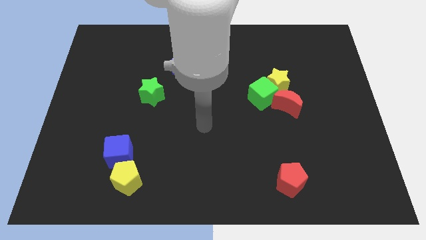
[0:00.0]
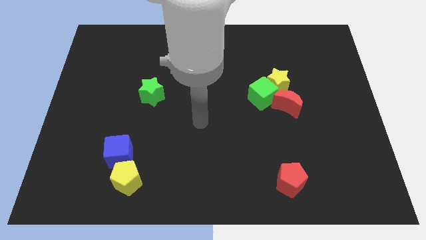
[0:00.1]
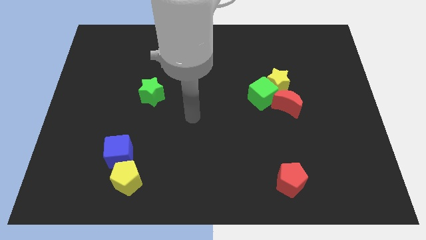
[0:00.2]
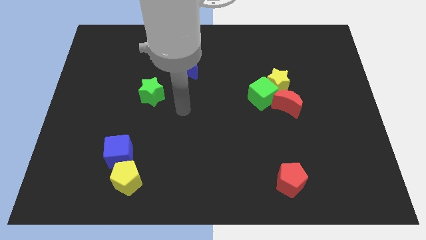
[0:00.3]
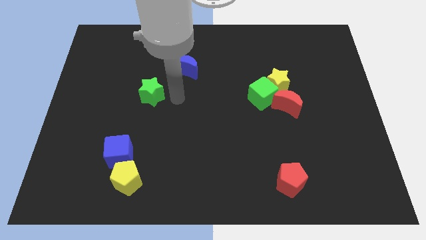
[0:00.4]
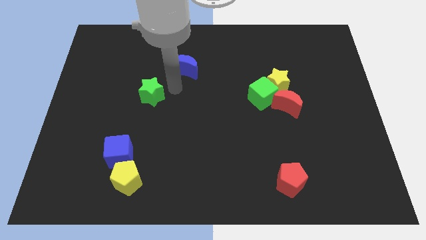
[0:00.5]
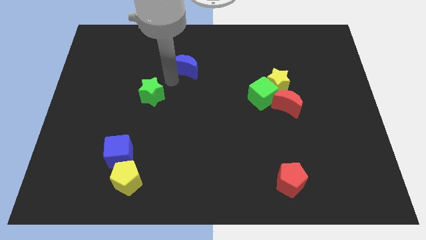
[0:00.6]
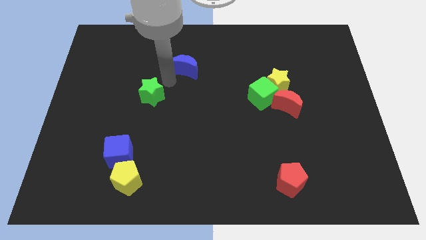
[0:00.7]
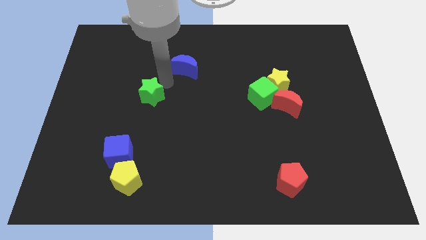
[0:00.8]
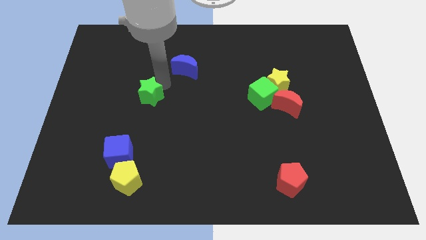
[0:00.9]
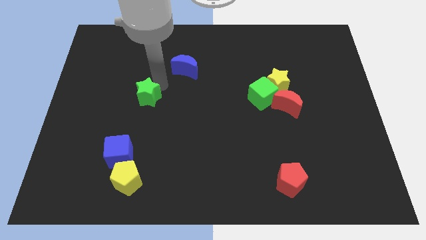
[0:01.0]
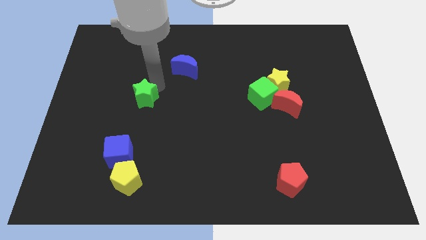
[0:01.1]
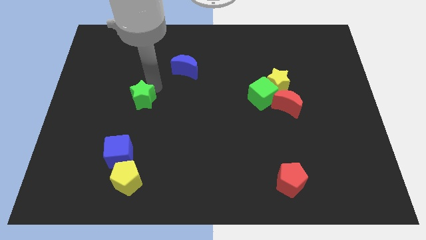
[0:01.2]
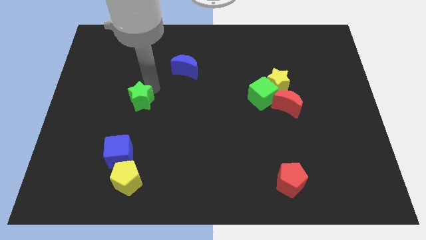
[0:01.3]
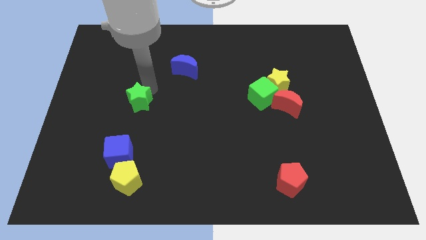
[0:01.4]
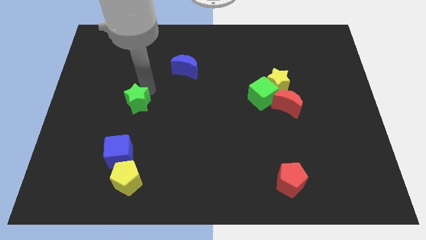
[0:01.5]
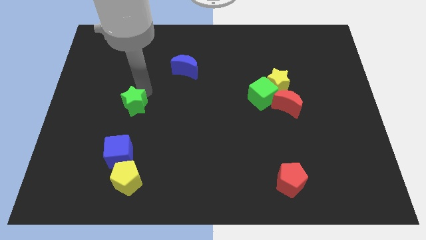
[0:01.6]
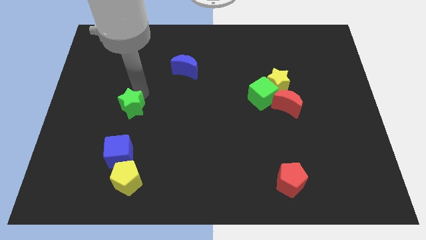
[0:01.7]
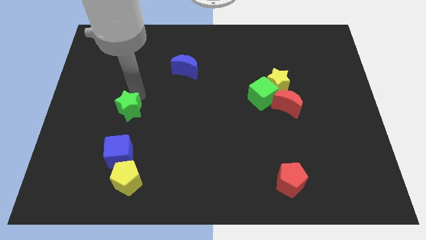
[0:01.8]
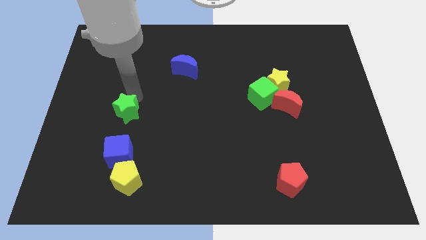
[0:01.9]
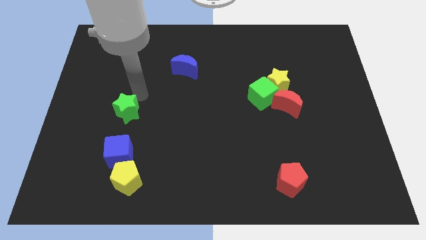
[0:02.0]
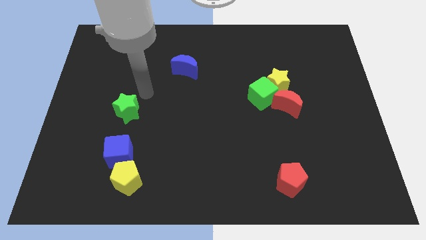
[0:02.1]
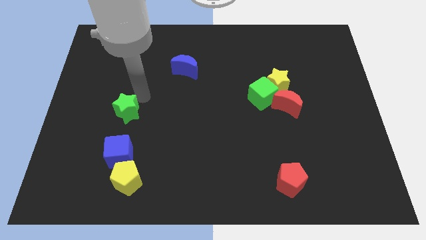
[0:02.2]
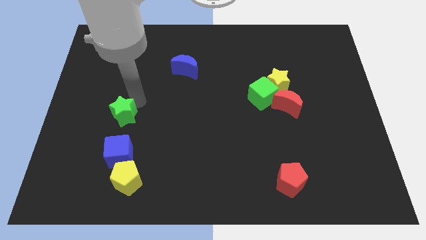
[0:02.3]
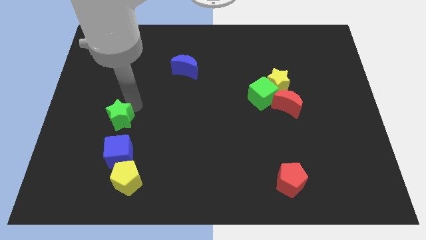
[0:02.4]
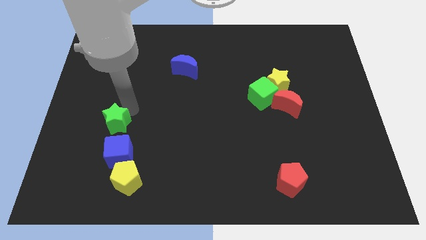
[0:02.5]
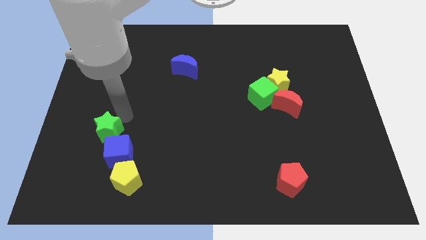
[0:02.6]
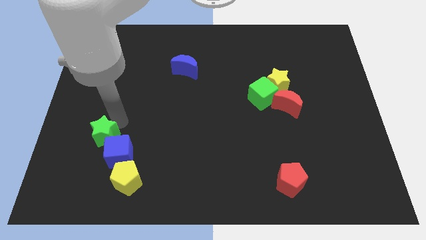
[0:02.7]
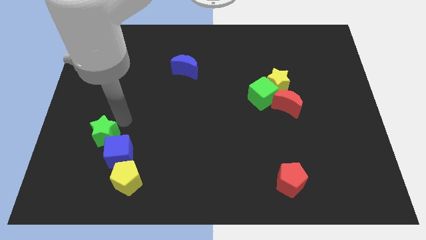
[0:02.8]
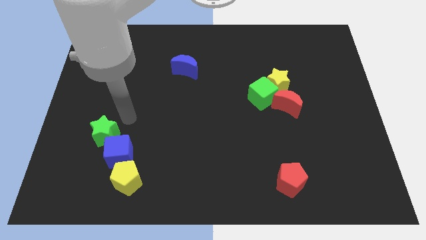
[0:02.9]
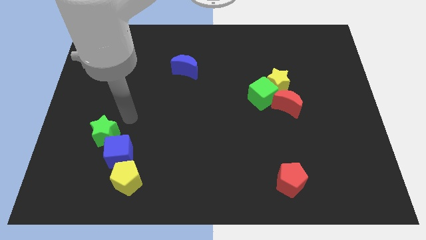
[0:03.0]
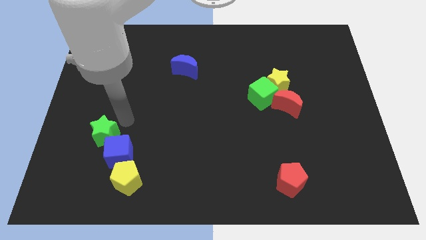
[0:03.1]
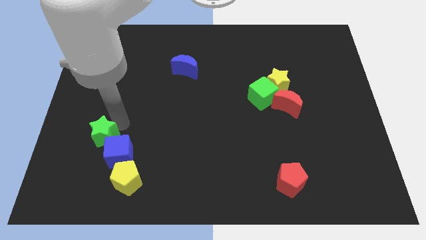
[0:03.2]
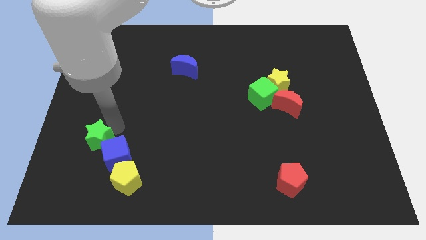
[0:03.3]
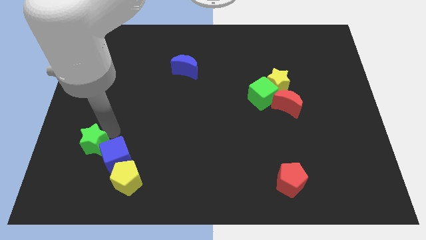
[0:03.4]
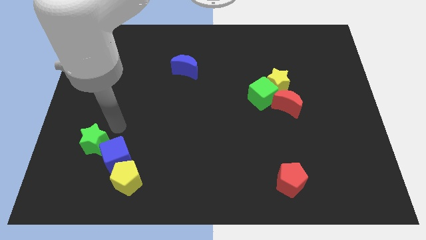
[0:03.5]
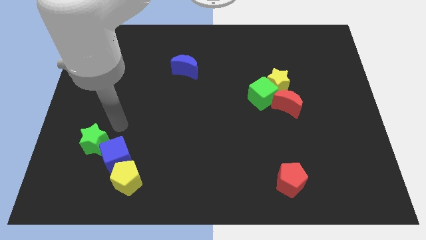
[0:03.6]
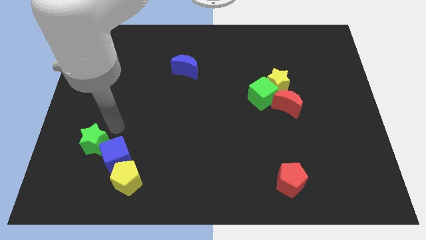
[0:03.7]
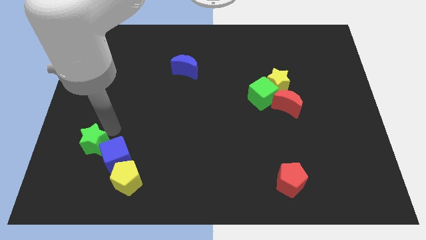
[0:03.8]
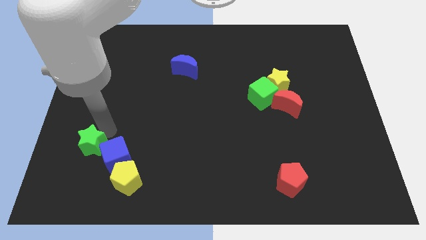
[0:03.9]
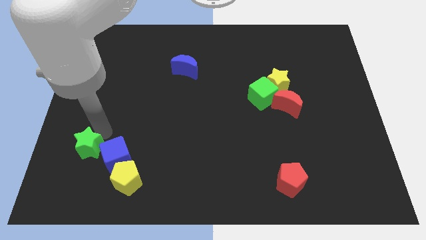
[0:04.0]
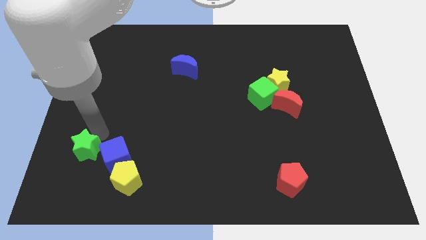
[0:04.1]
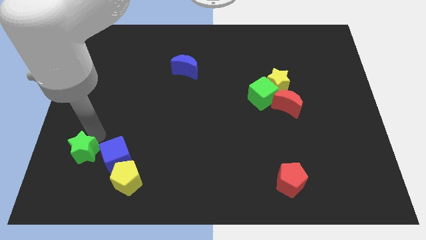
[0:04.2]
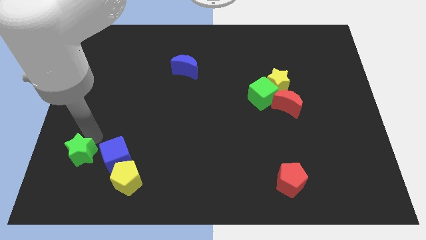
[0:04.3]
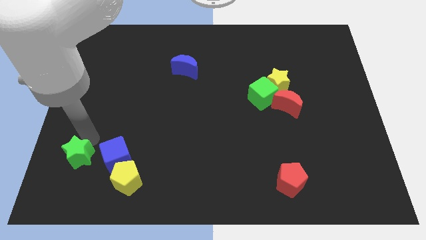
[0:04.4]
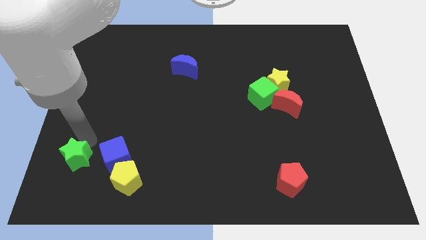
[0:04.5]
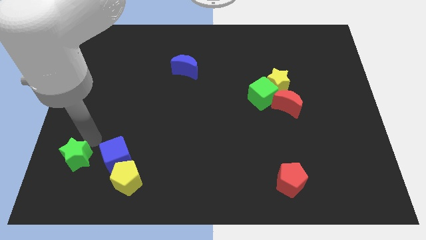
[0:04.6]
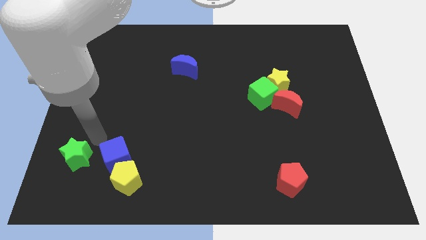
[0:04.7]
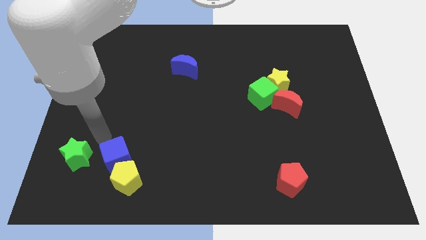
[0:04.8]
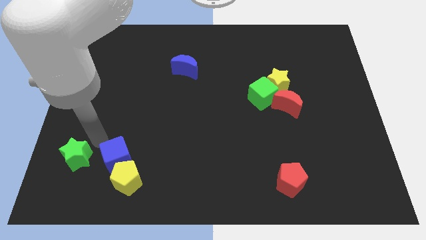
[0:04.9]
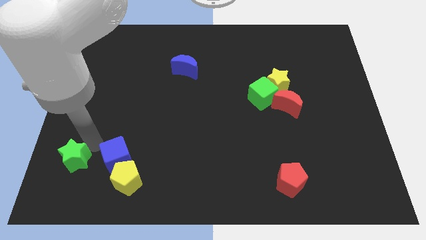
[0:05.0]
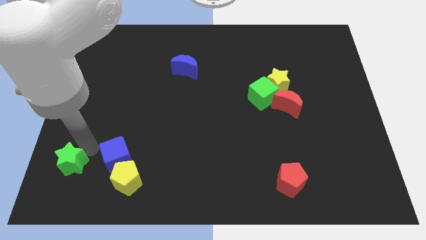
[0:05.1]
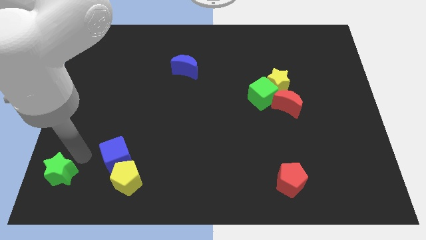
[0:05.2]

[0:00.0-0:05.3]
slide the green star to the lower left corner

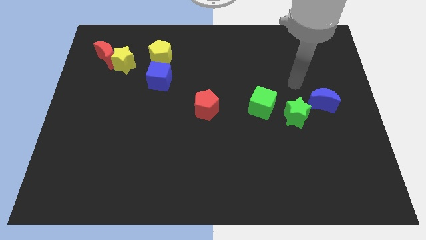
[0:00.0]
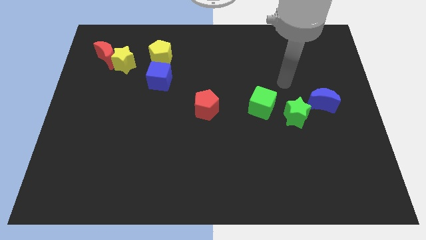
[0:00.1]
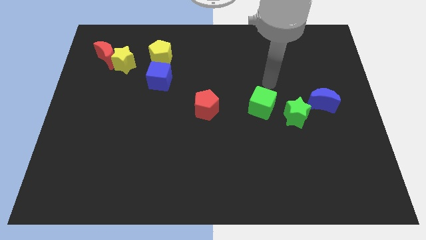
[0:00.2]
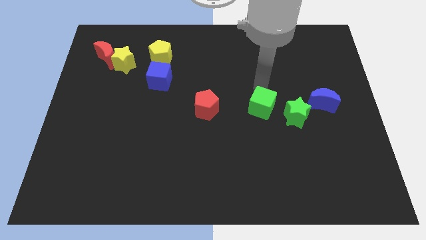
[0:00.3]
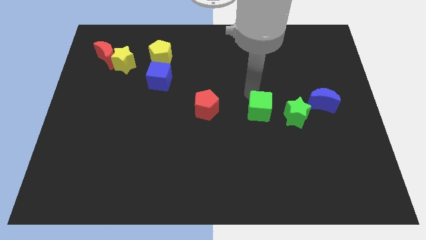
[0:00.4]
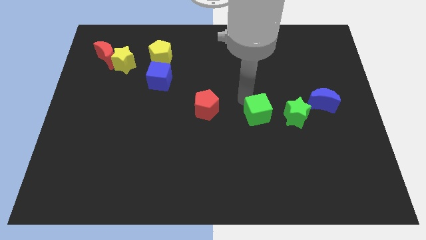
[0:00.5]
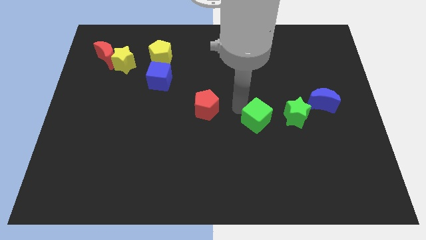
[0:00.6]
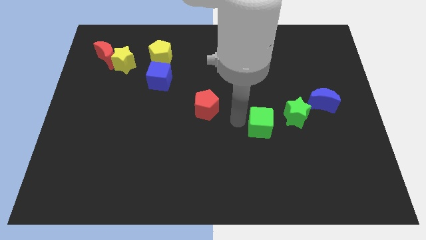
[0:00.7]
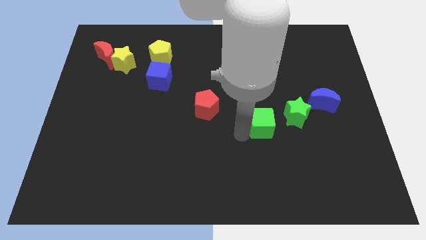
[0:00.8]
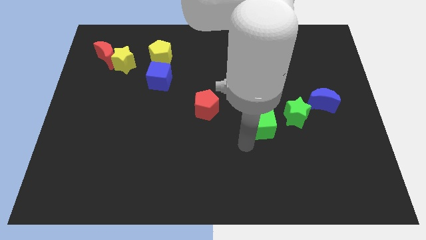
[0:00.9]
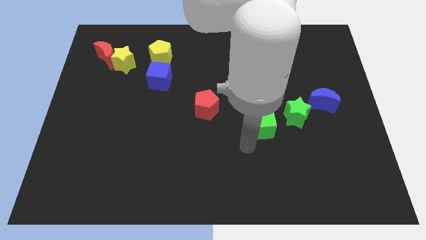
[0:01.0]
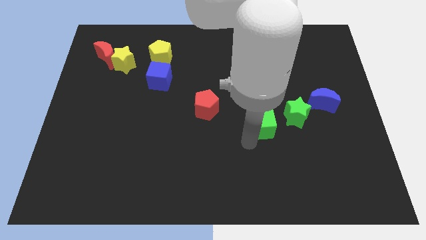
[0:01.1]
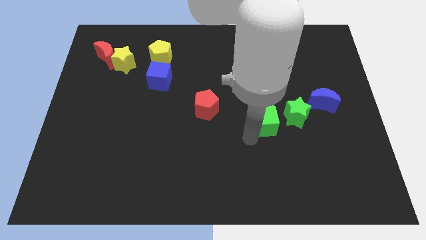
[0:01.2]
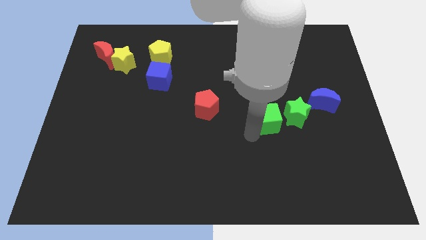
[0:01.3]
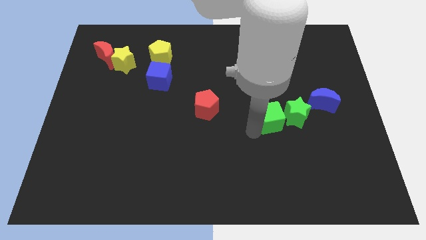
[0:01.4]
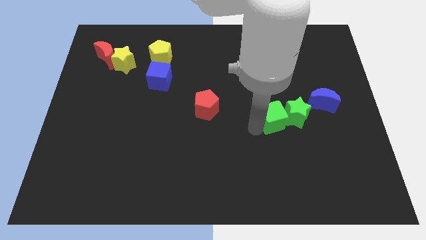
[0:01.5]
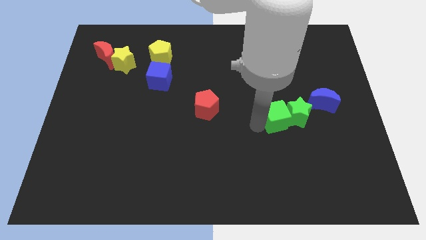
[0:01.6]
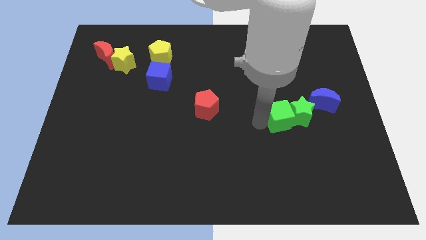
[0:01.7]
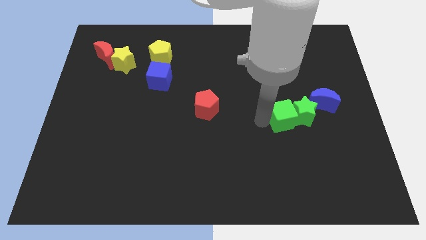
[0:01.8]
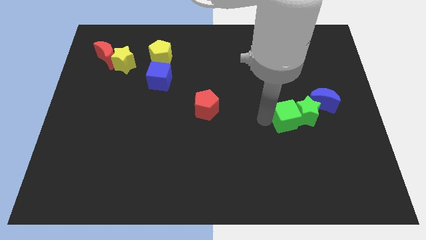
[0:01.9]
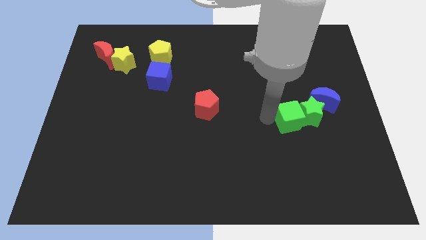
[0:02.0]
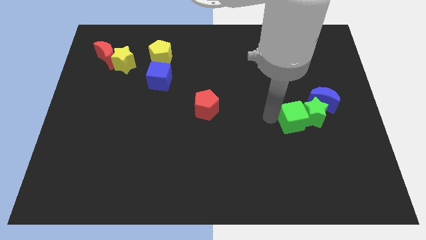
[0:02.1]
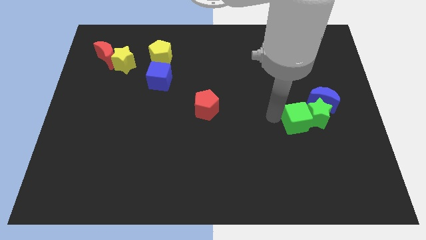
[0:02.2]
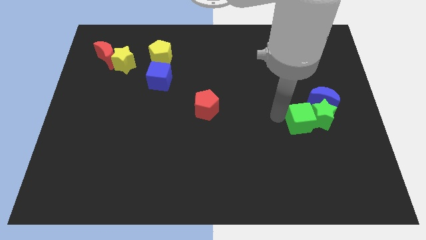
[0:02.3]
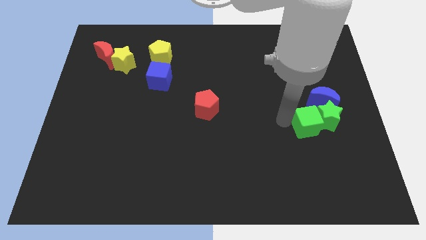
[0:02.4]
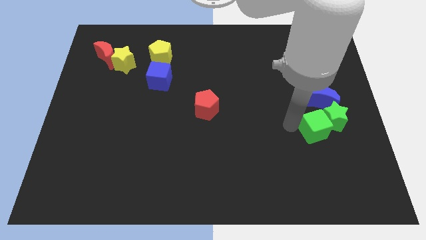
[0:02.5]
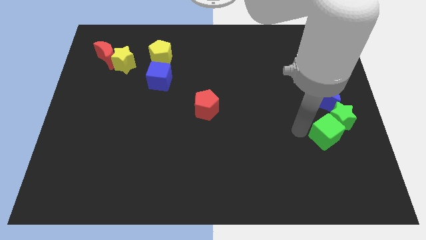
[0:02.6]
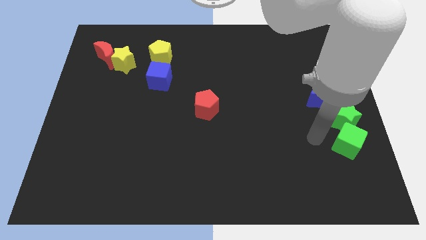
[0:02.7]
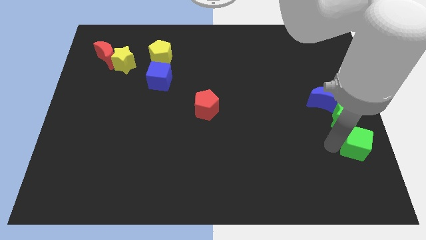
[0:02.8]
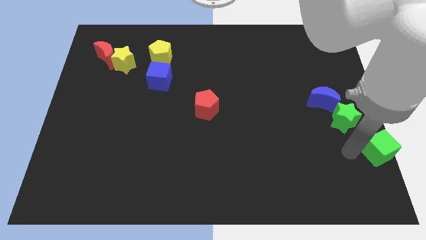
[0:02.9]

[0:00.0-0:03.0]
put the green cube to the center right
